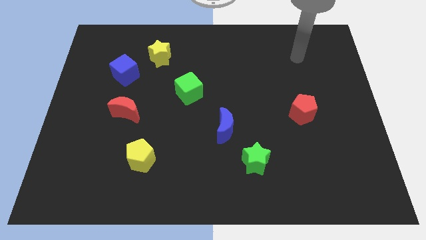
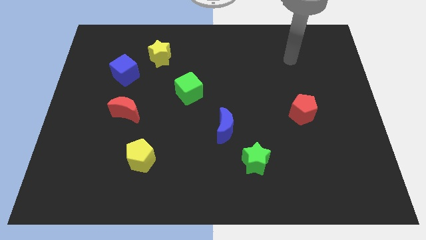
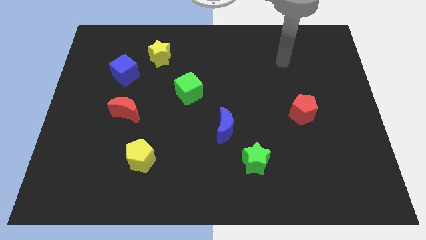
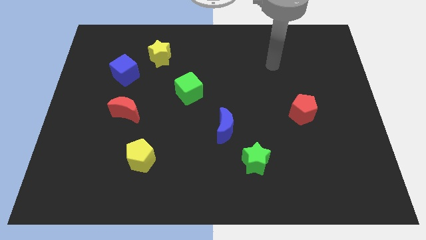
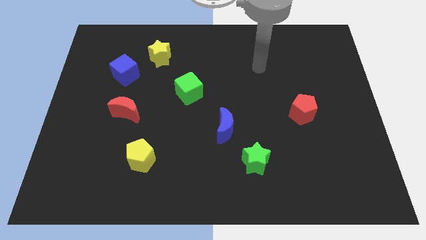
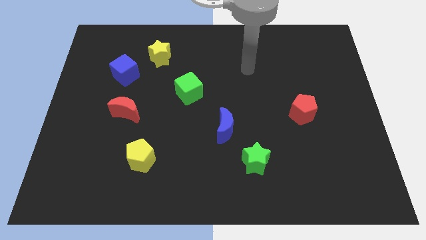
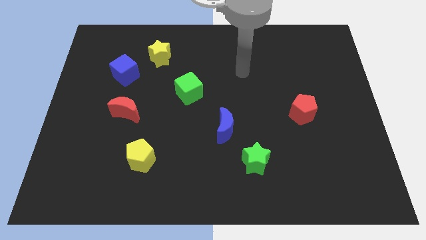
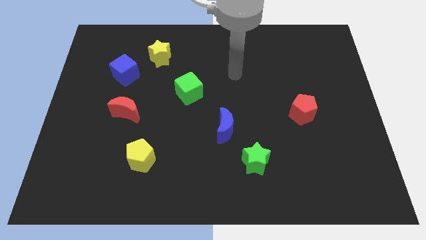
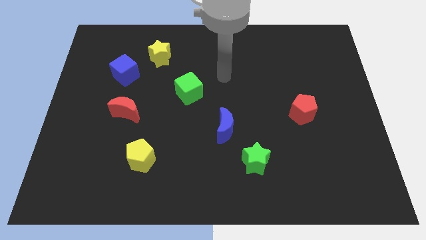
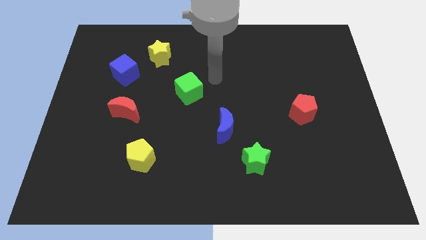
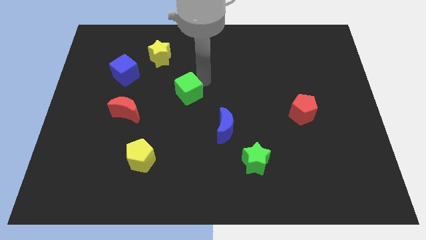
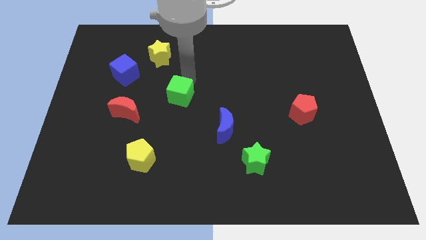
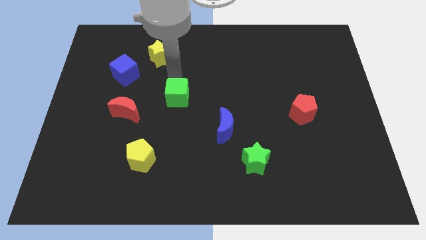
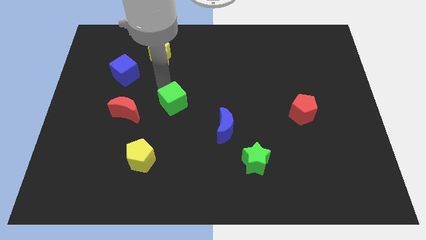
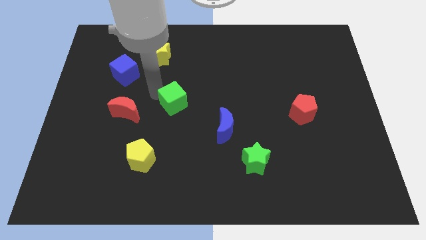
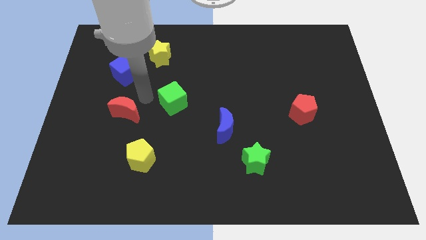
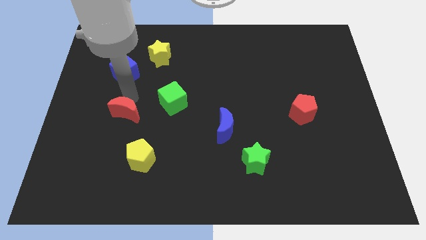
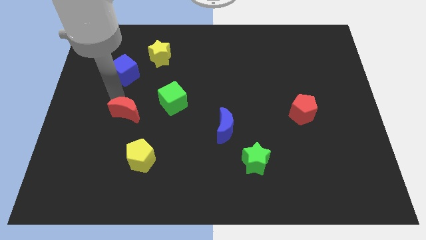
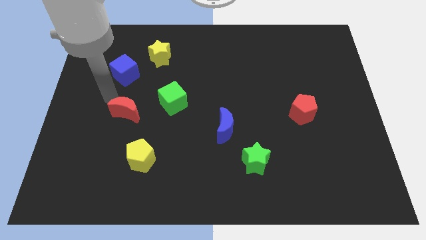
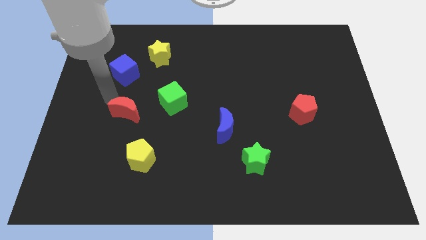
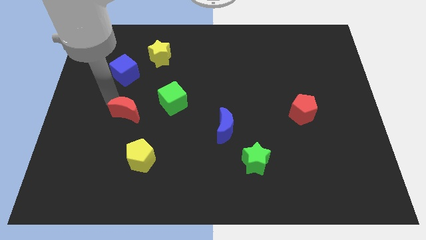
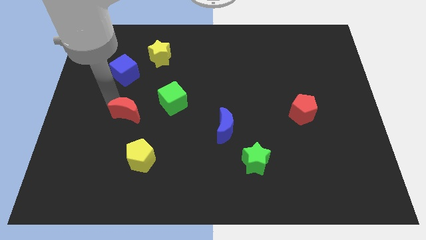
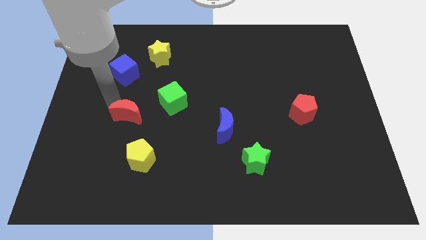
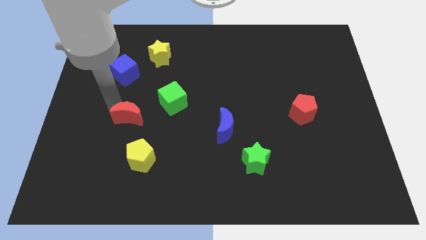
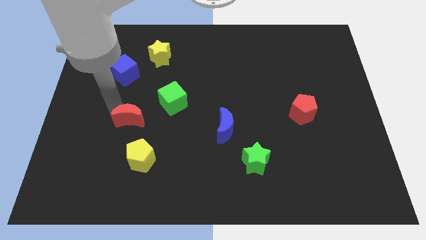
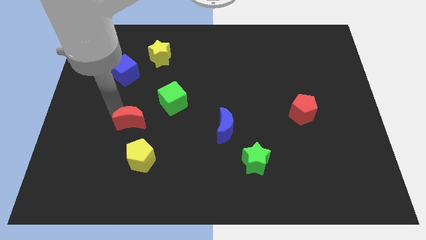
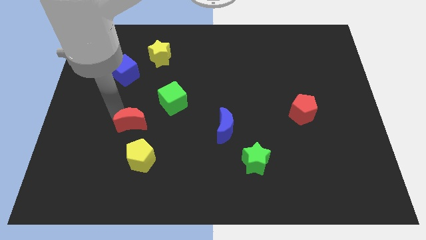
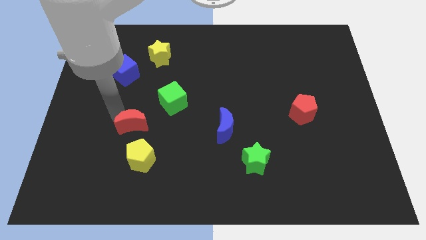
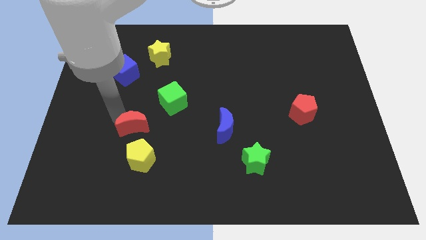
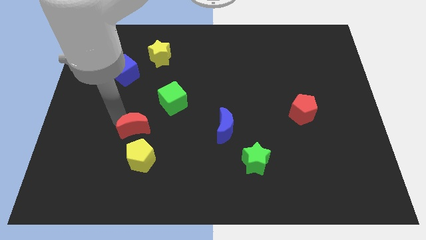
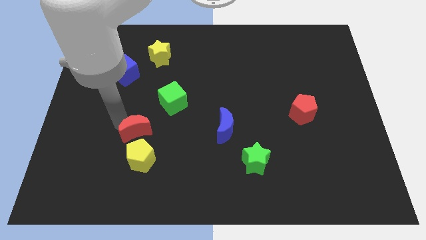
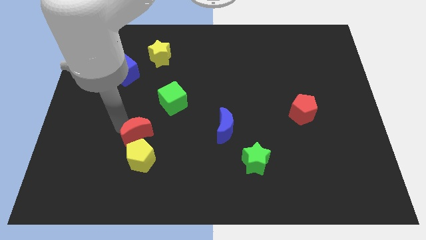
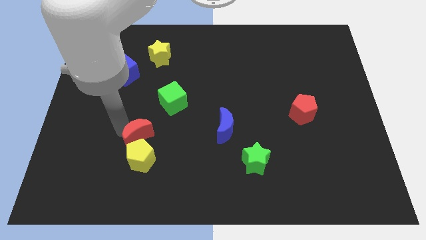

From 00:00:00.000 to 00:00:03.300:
push the red moon a bit down and right

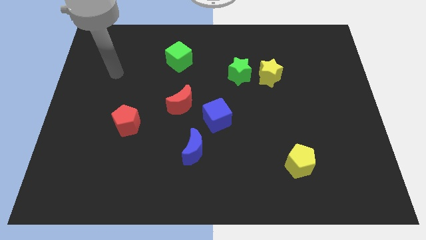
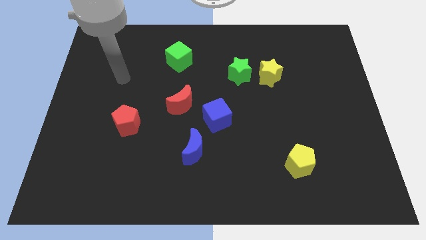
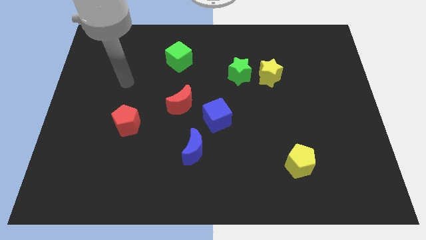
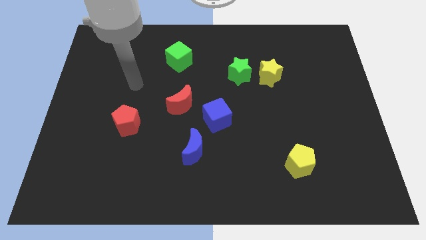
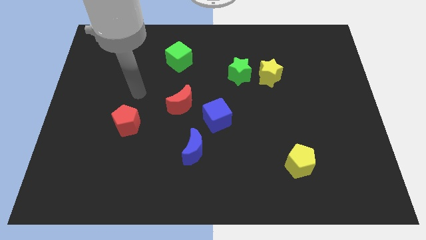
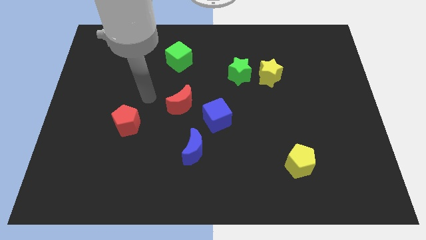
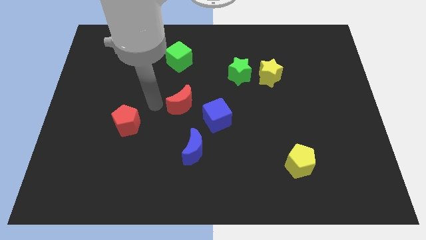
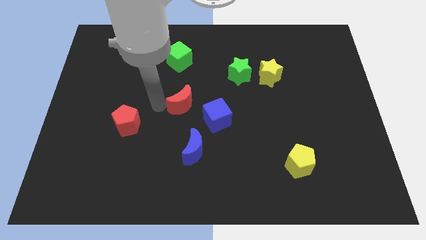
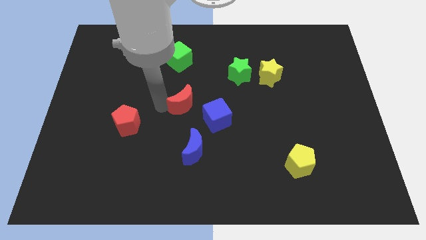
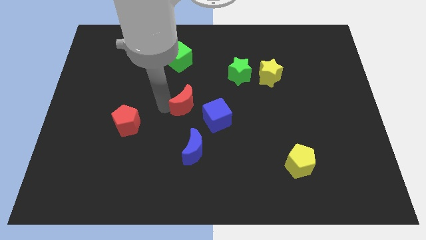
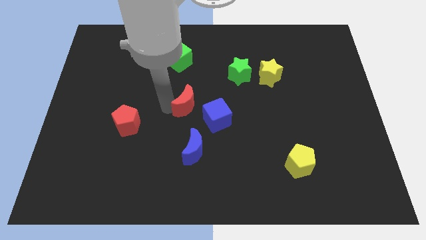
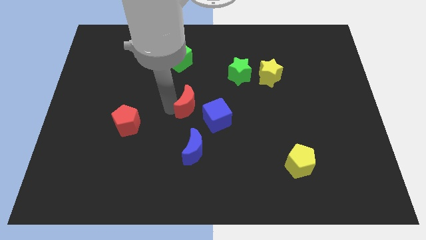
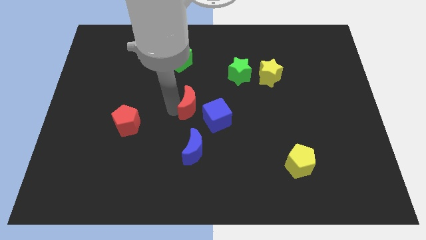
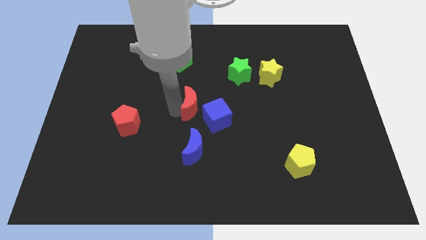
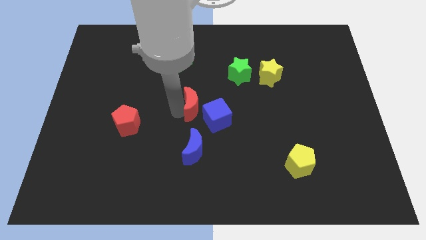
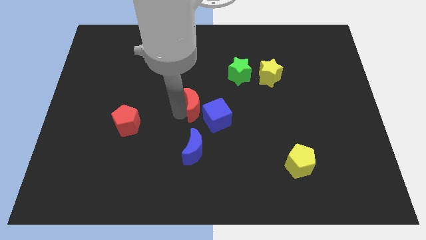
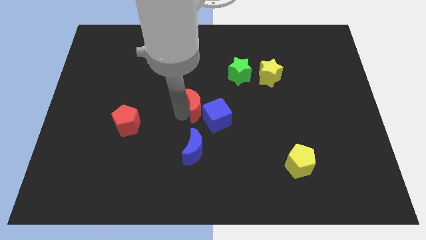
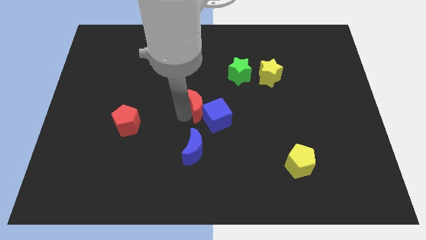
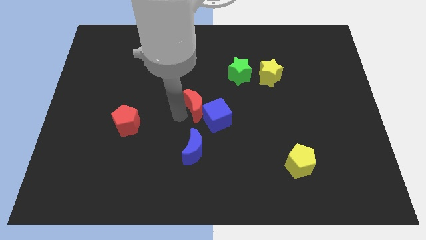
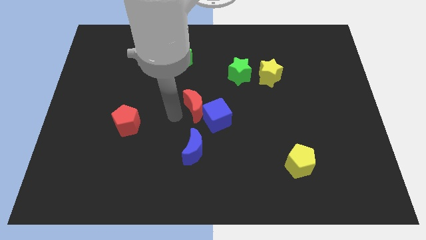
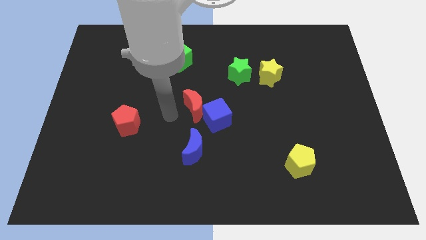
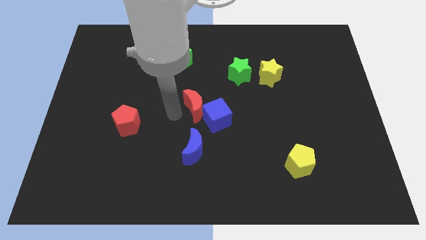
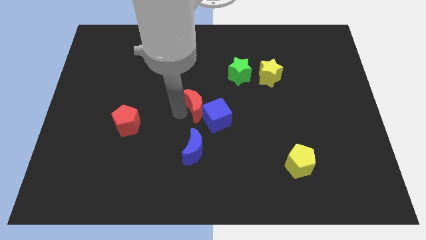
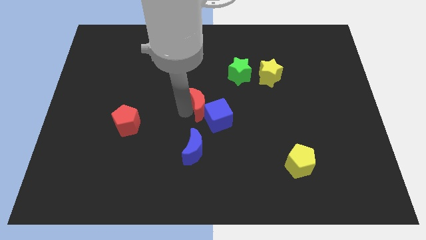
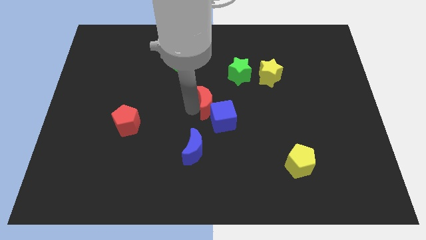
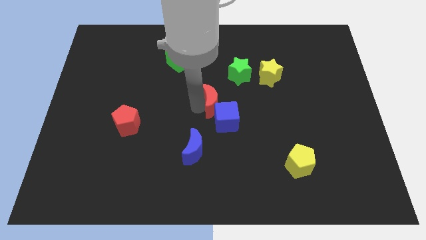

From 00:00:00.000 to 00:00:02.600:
push the red moon to the right slightly

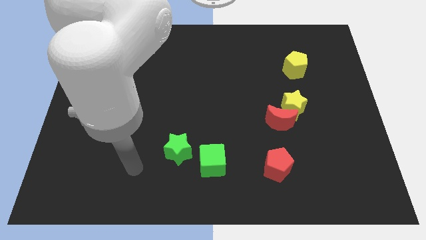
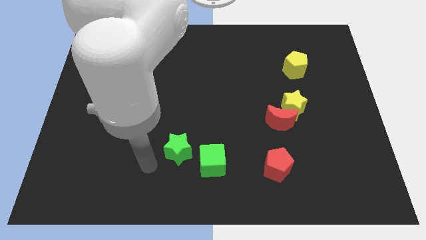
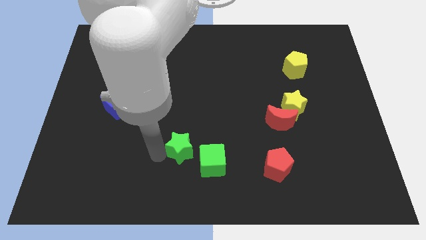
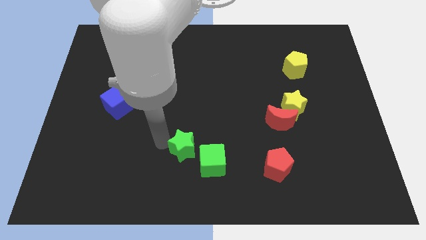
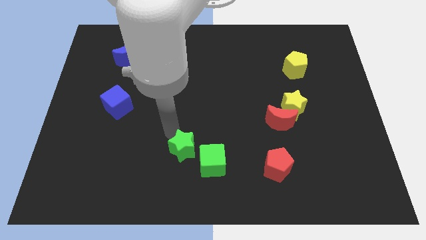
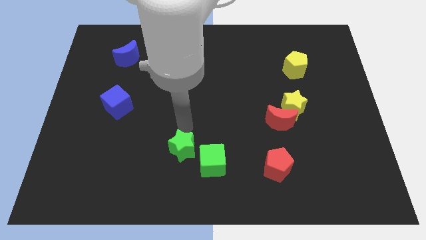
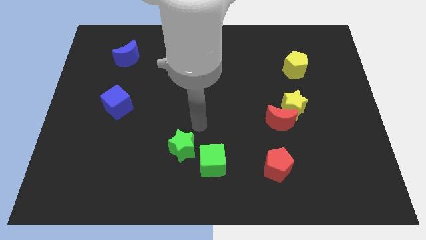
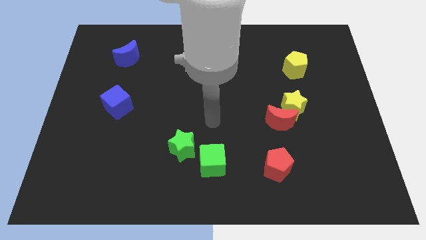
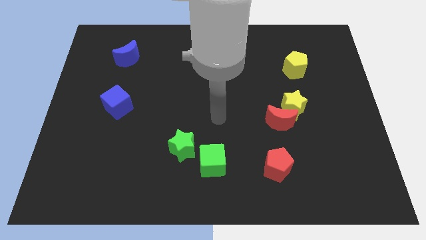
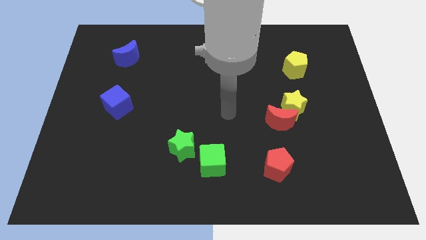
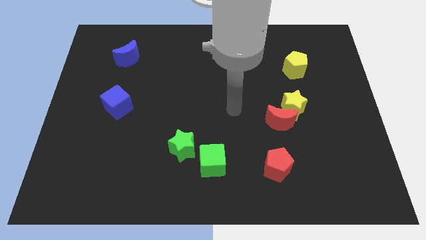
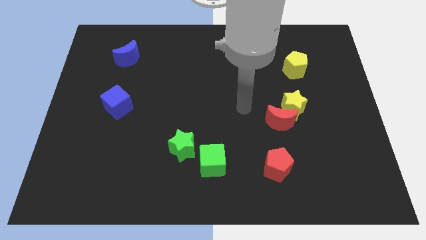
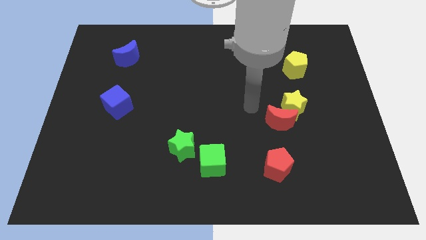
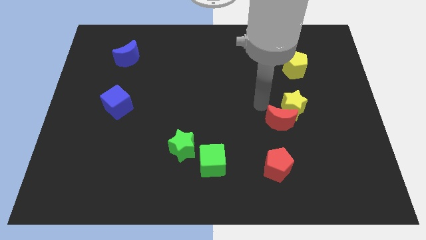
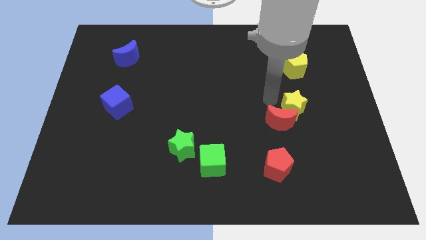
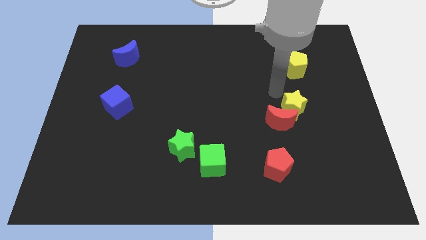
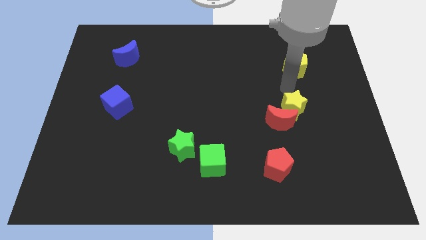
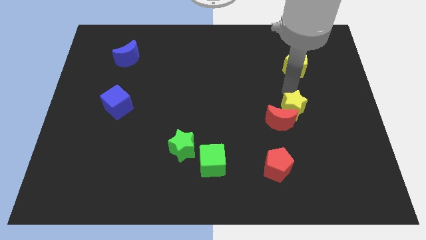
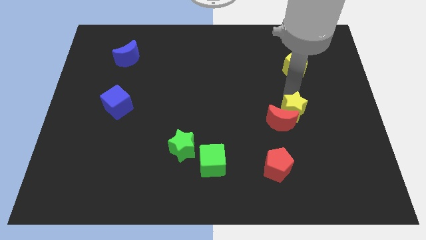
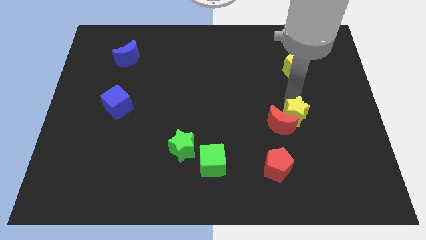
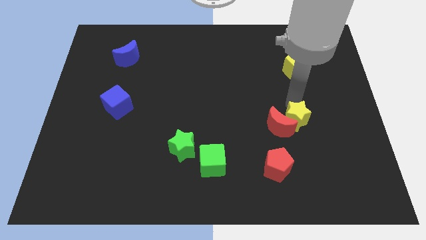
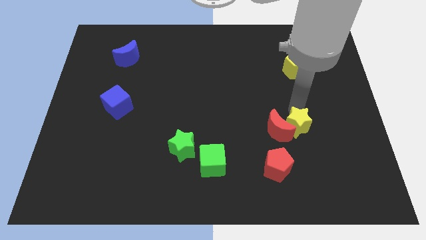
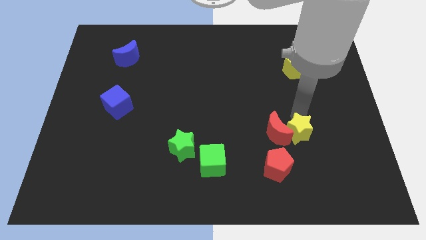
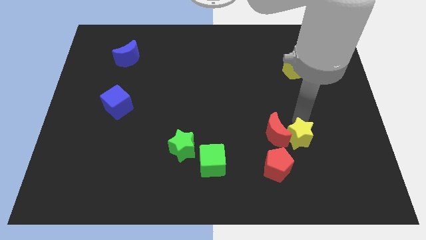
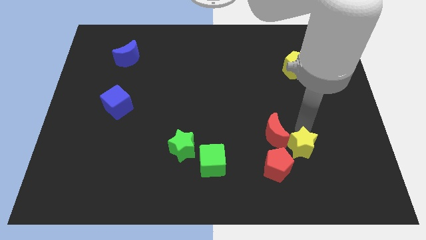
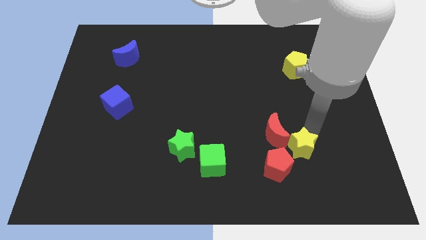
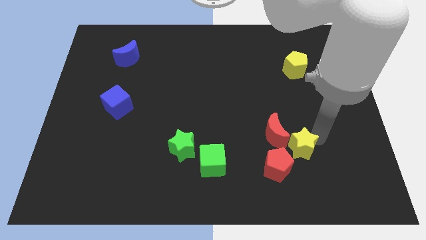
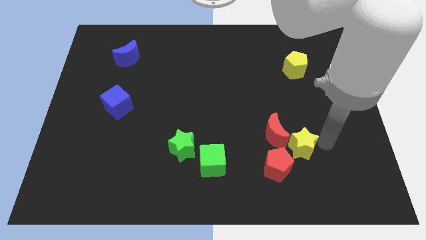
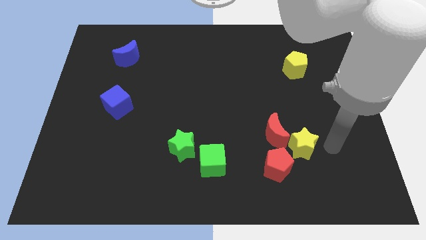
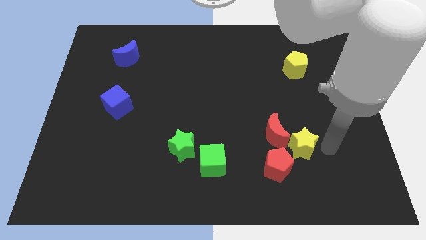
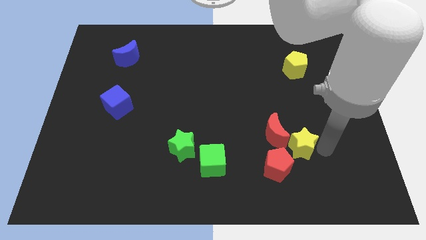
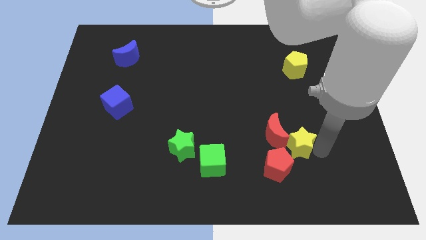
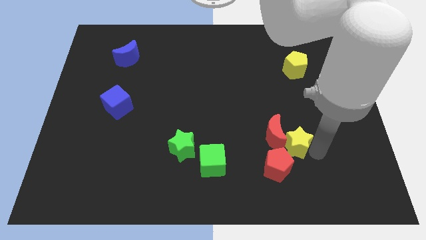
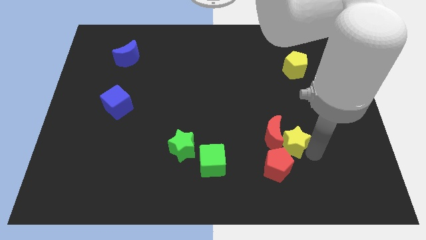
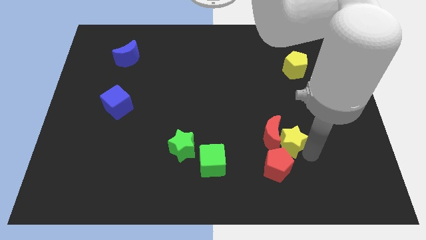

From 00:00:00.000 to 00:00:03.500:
push the yellow star down and then left a little bit
